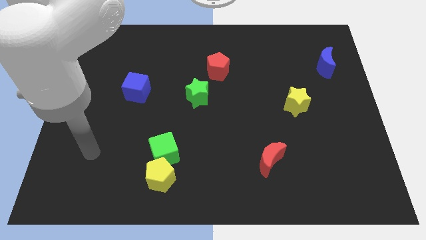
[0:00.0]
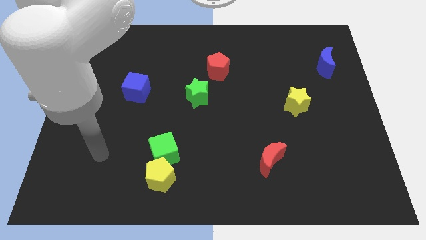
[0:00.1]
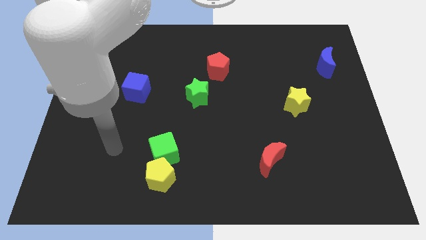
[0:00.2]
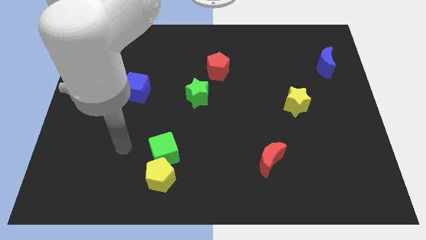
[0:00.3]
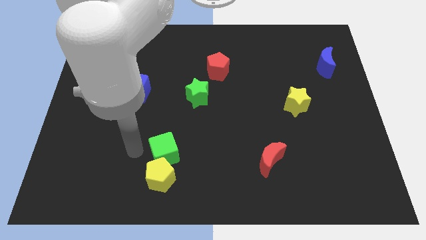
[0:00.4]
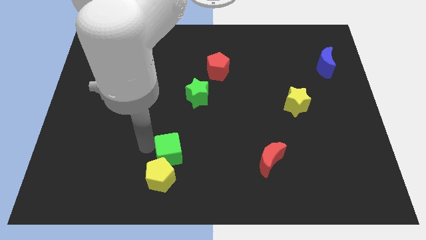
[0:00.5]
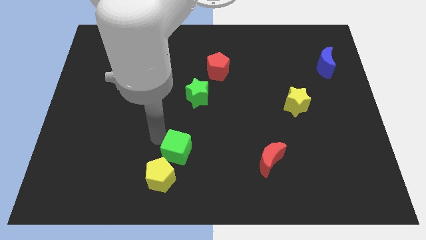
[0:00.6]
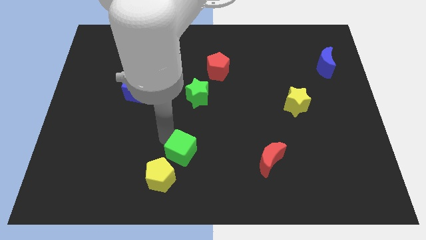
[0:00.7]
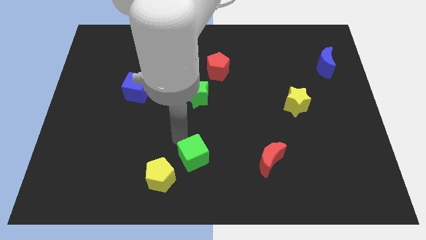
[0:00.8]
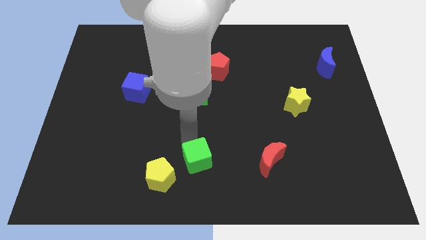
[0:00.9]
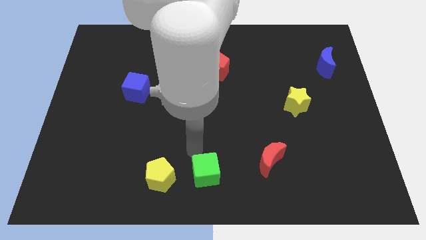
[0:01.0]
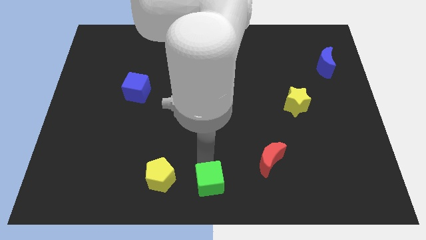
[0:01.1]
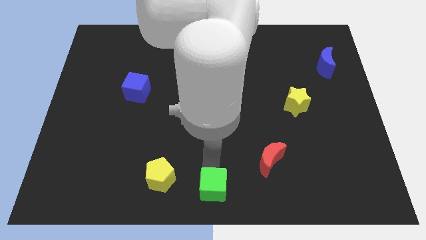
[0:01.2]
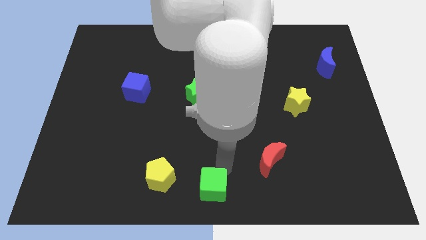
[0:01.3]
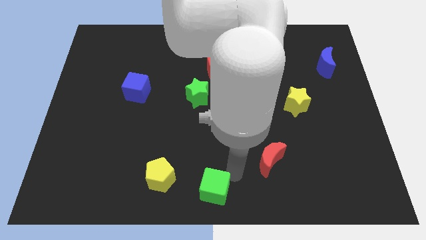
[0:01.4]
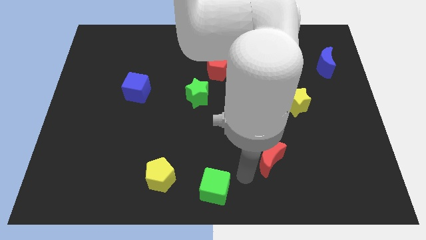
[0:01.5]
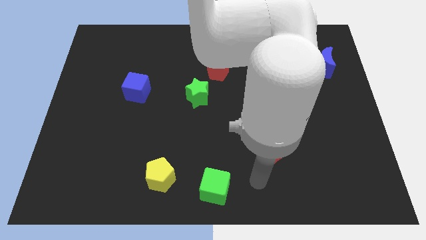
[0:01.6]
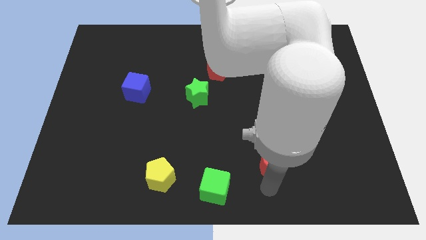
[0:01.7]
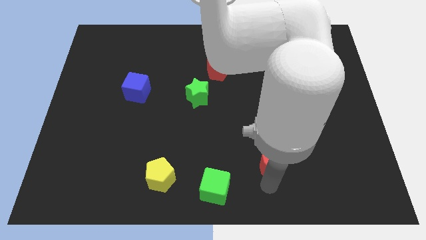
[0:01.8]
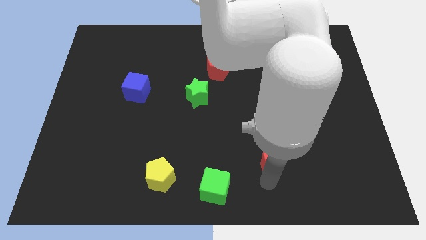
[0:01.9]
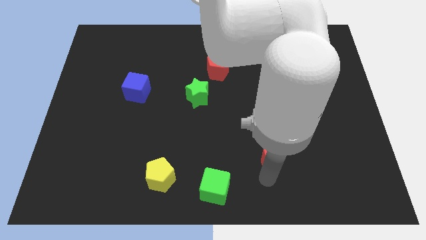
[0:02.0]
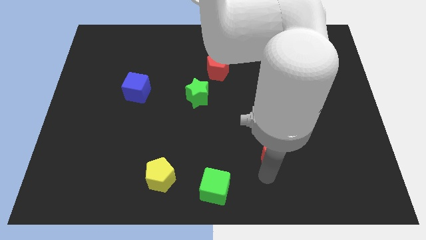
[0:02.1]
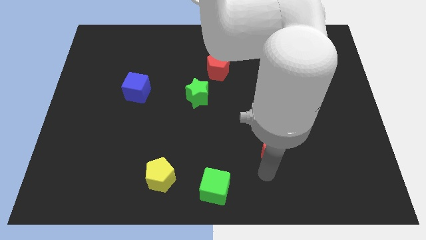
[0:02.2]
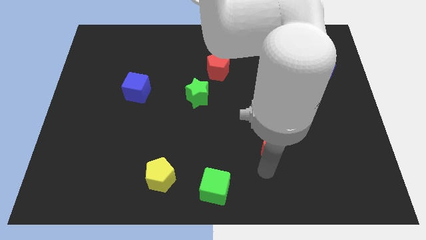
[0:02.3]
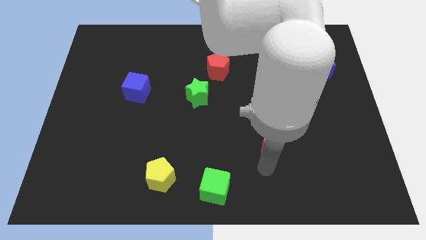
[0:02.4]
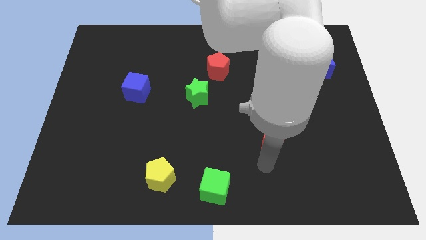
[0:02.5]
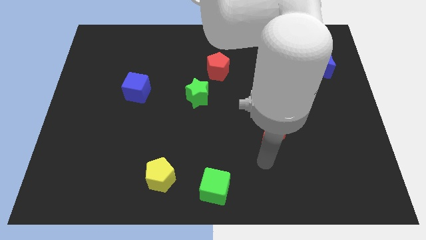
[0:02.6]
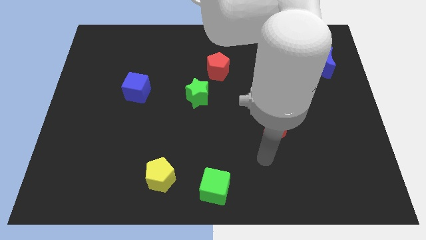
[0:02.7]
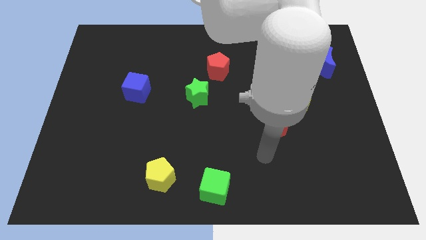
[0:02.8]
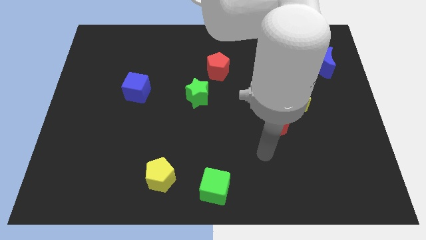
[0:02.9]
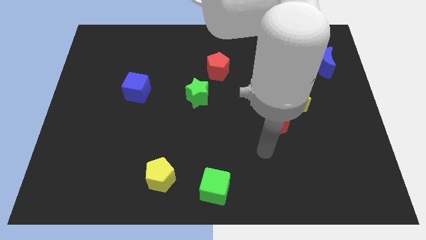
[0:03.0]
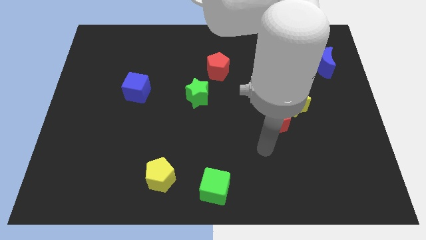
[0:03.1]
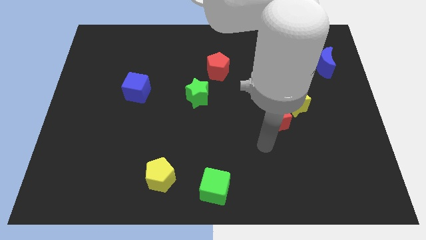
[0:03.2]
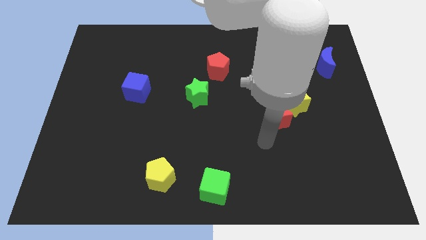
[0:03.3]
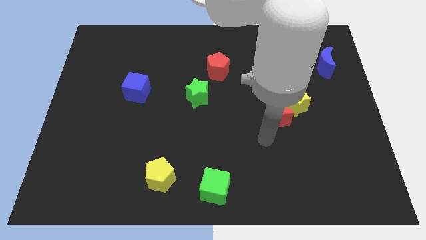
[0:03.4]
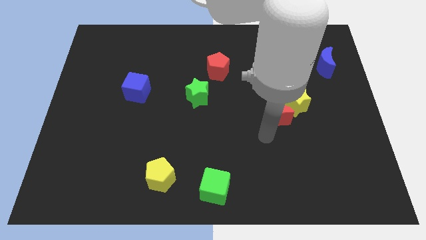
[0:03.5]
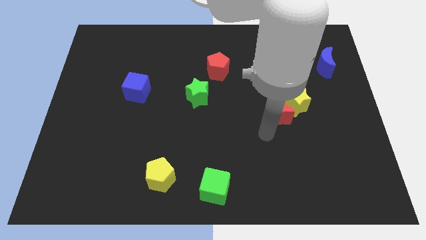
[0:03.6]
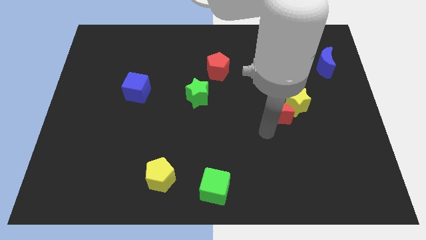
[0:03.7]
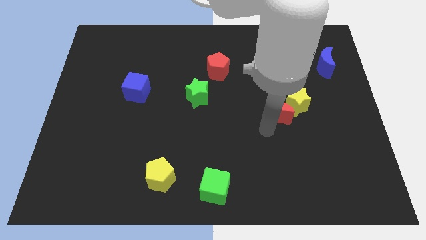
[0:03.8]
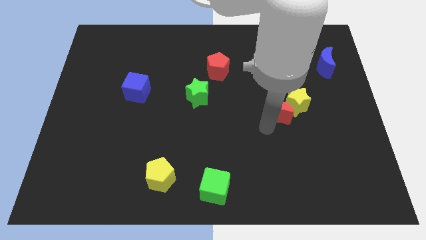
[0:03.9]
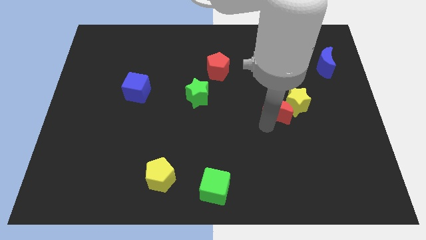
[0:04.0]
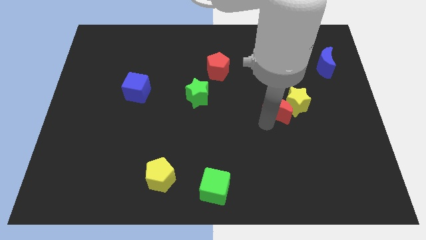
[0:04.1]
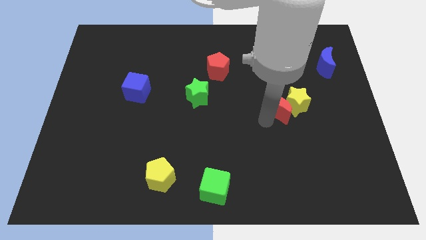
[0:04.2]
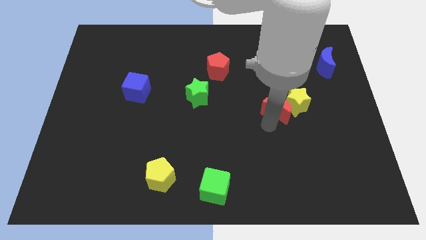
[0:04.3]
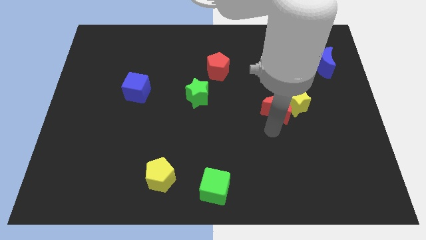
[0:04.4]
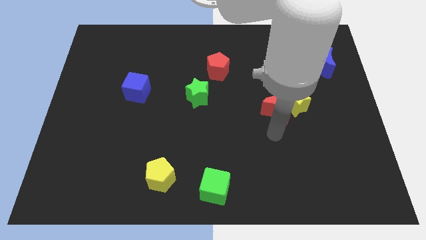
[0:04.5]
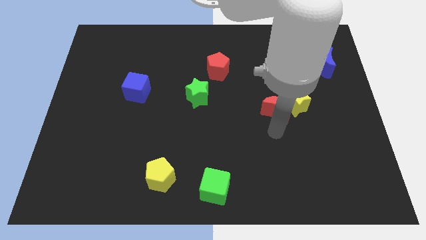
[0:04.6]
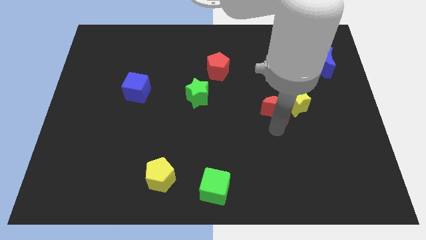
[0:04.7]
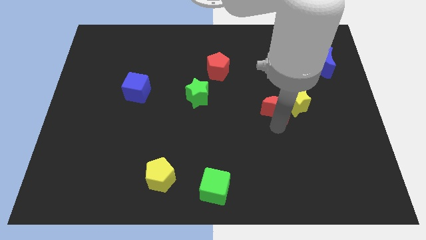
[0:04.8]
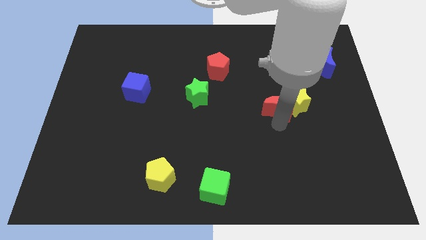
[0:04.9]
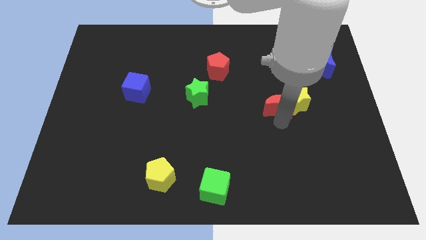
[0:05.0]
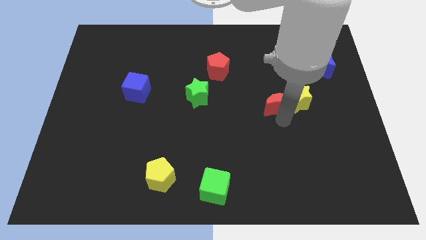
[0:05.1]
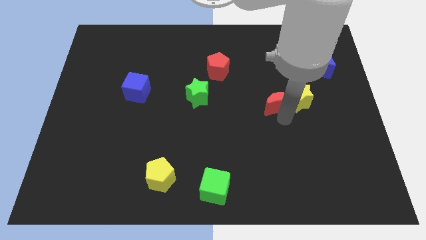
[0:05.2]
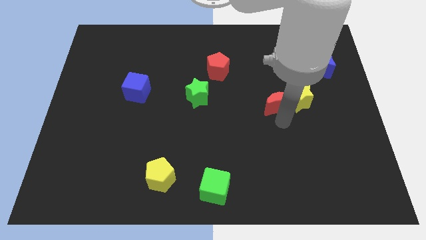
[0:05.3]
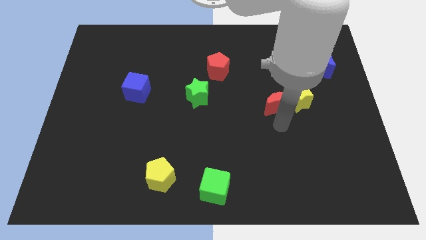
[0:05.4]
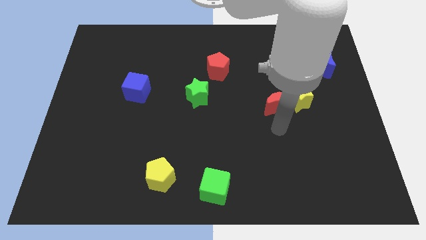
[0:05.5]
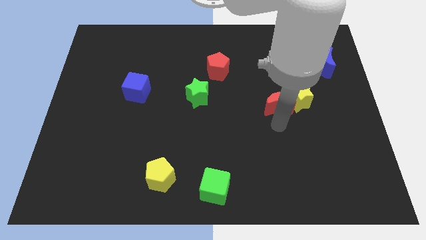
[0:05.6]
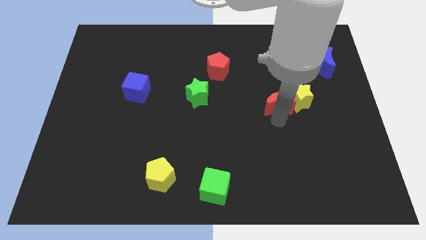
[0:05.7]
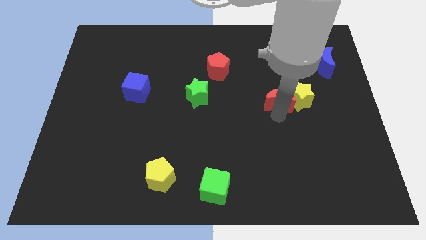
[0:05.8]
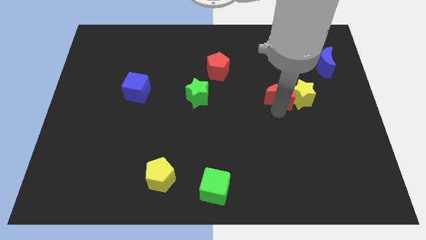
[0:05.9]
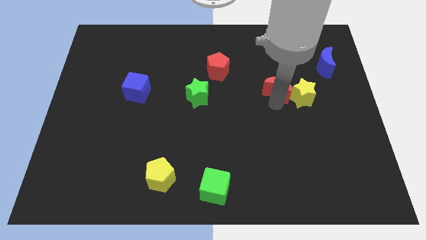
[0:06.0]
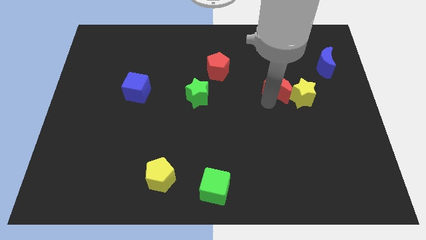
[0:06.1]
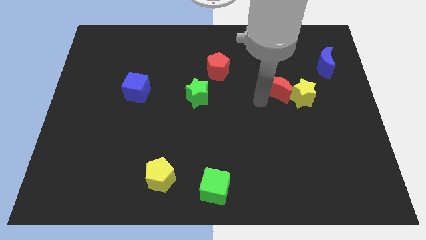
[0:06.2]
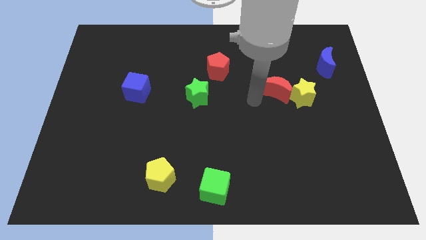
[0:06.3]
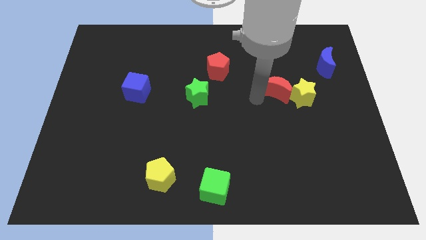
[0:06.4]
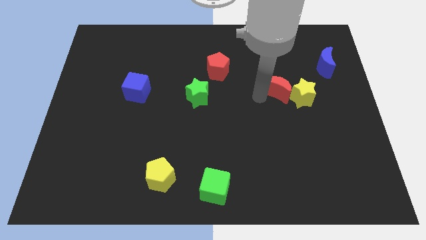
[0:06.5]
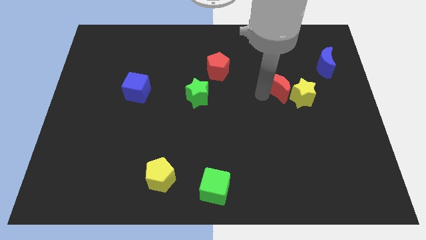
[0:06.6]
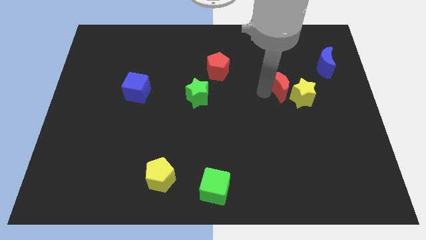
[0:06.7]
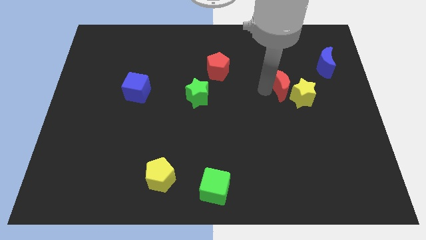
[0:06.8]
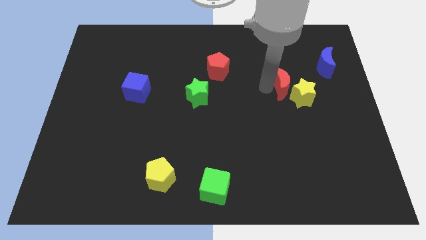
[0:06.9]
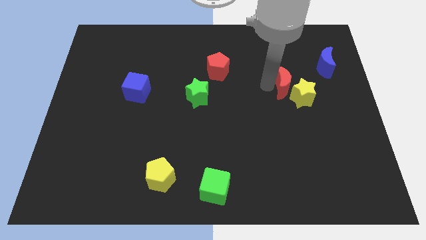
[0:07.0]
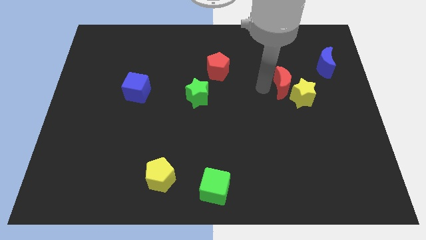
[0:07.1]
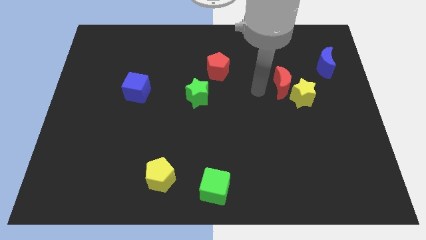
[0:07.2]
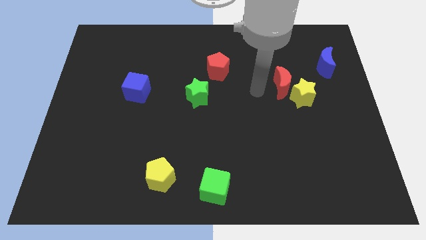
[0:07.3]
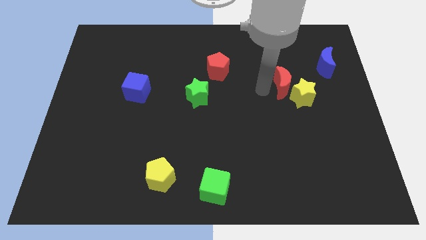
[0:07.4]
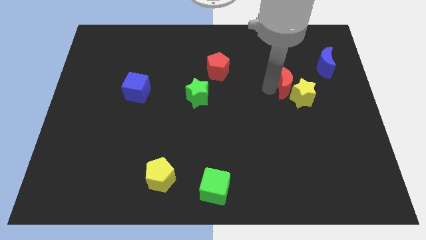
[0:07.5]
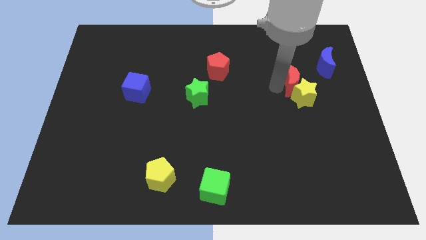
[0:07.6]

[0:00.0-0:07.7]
put the red moon diagonally down and to the left of the blue moon
